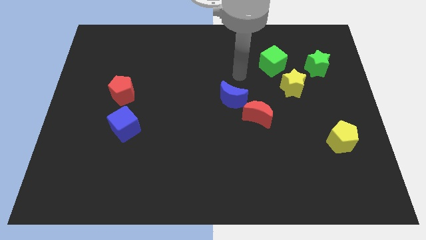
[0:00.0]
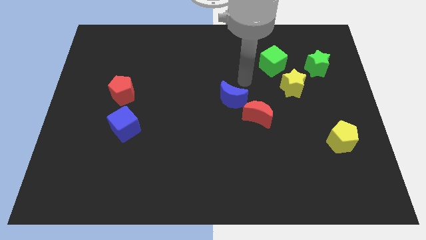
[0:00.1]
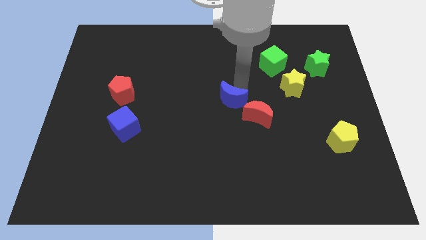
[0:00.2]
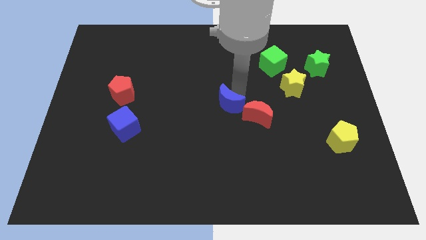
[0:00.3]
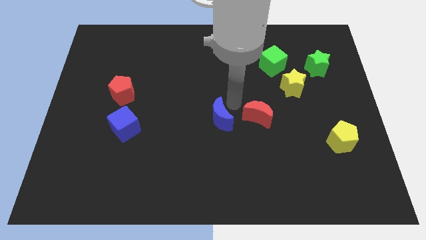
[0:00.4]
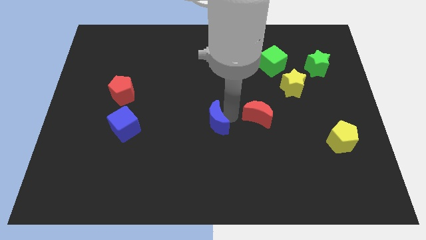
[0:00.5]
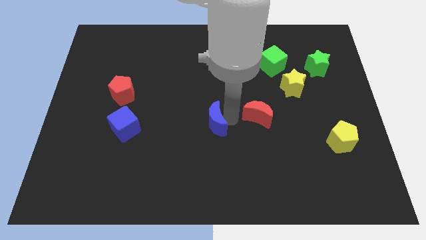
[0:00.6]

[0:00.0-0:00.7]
pull the red moon apart from the blue moon

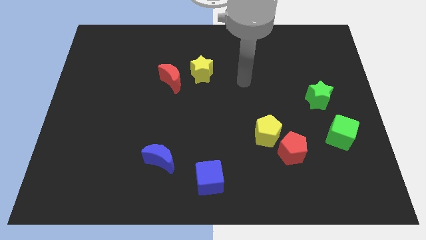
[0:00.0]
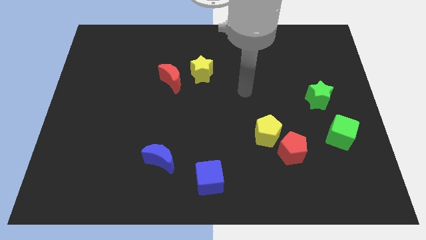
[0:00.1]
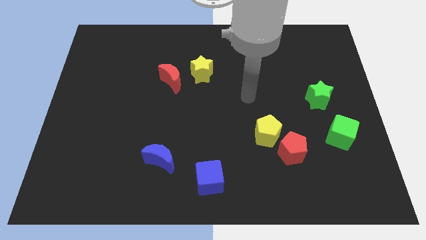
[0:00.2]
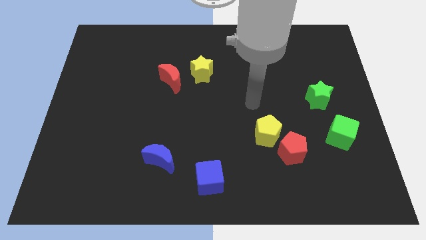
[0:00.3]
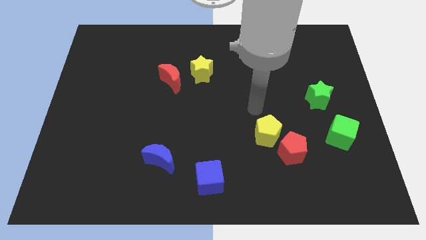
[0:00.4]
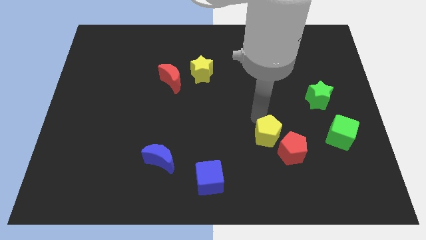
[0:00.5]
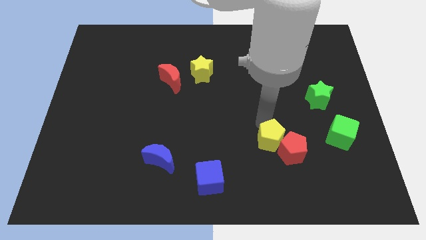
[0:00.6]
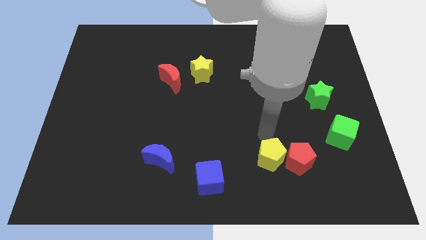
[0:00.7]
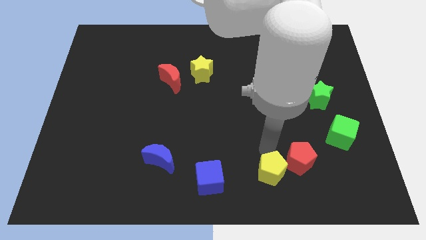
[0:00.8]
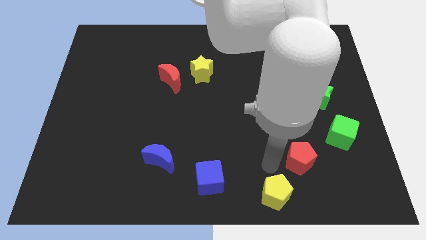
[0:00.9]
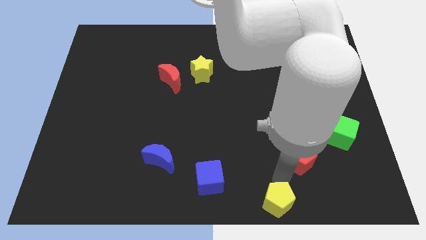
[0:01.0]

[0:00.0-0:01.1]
separate the red pentagon from the yellow pentagon

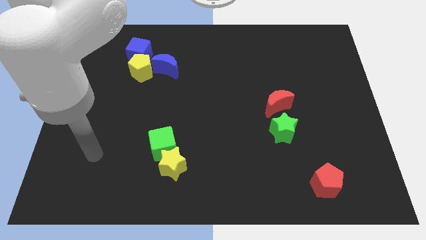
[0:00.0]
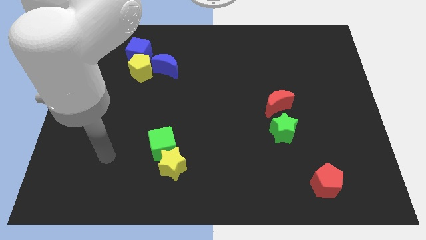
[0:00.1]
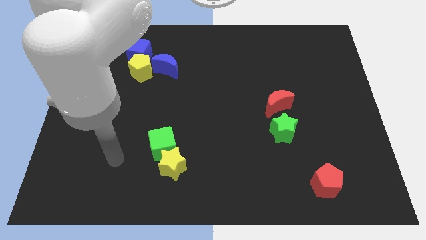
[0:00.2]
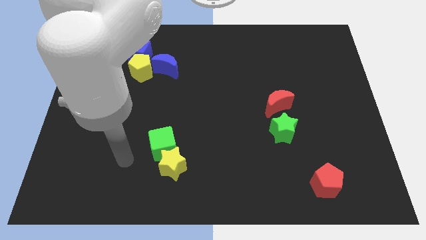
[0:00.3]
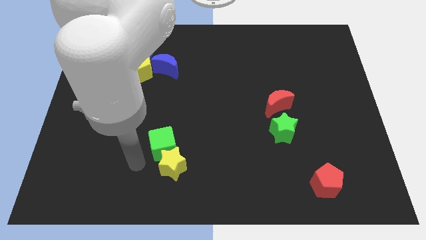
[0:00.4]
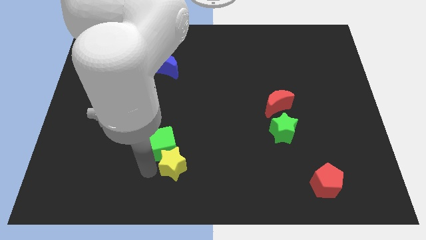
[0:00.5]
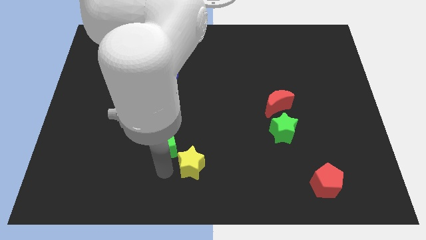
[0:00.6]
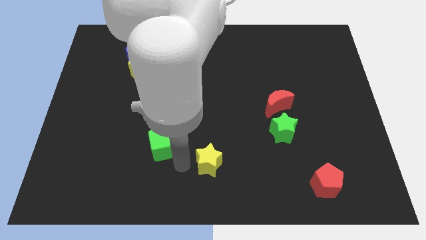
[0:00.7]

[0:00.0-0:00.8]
separate the green cube from the yellow star

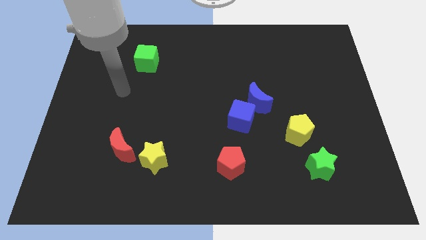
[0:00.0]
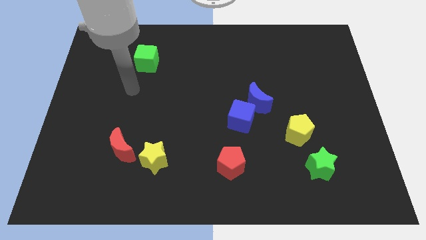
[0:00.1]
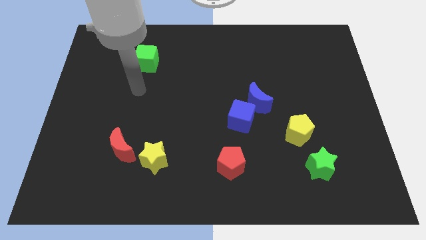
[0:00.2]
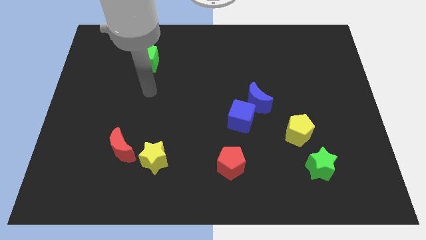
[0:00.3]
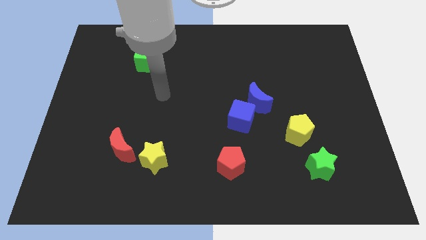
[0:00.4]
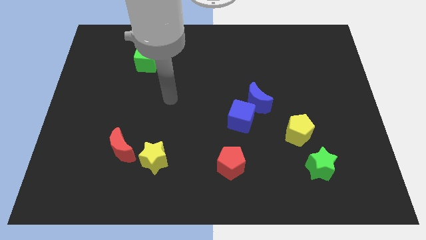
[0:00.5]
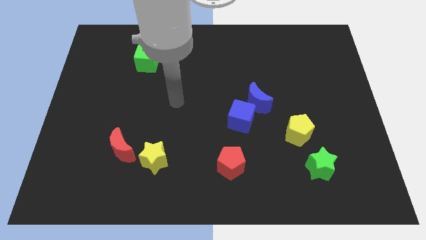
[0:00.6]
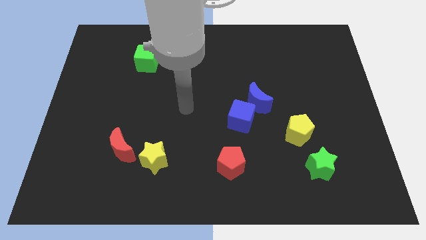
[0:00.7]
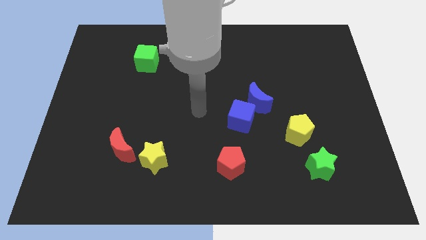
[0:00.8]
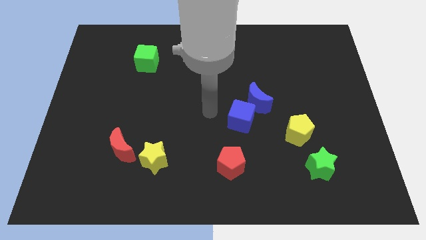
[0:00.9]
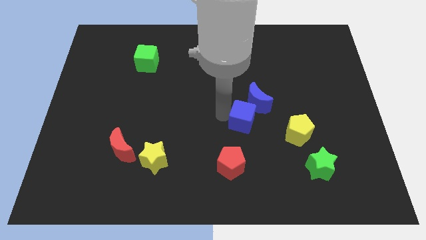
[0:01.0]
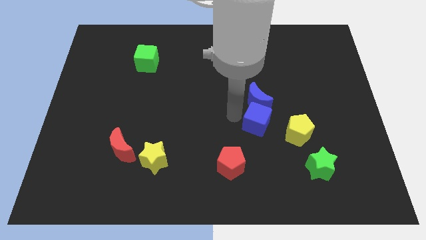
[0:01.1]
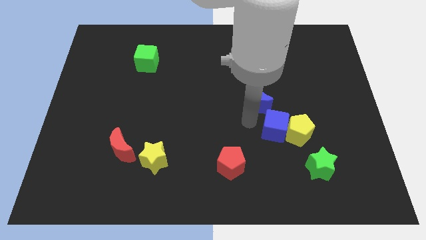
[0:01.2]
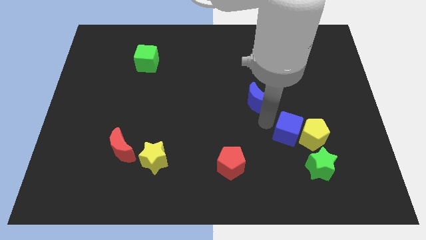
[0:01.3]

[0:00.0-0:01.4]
separate the blue moon from the blue cube

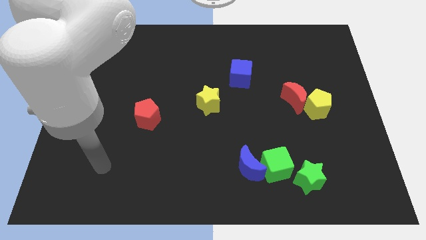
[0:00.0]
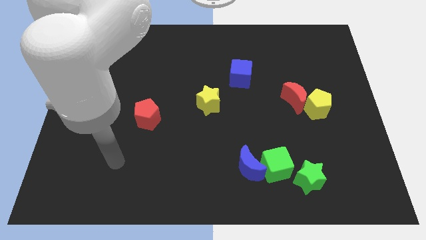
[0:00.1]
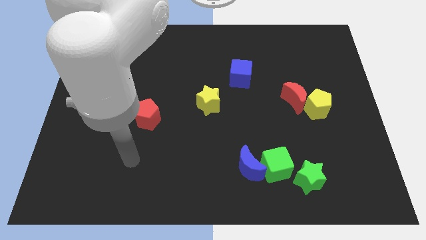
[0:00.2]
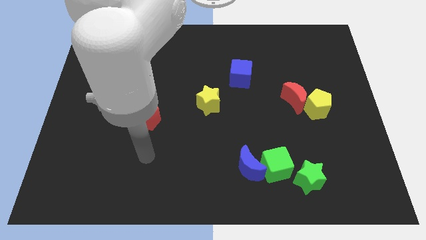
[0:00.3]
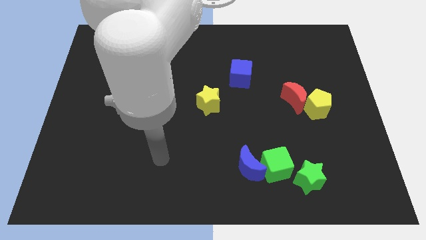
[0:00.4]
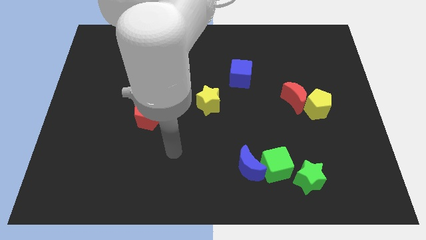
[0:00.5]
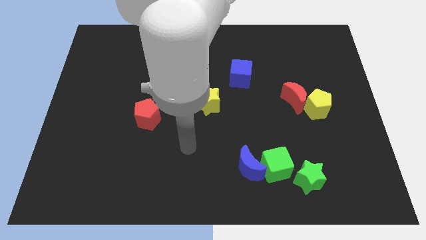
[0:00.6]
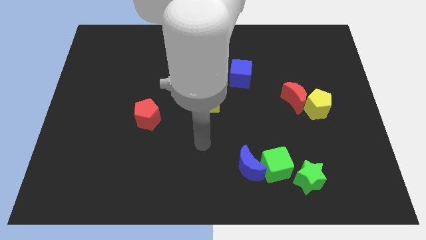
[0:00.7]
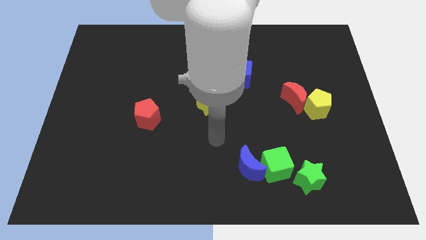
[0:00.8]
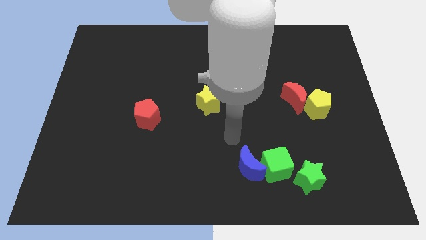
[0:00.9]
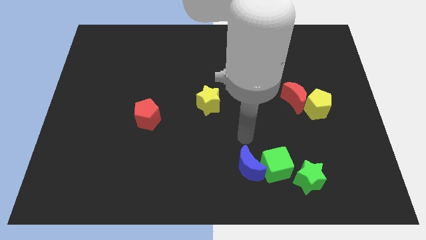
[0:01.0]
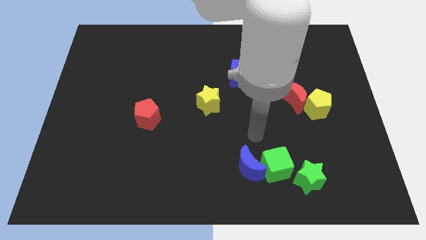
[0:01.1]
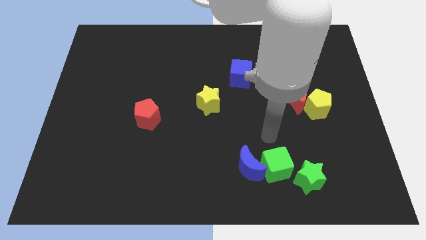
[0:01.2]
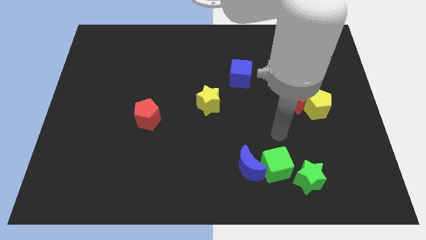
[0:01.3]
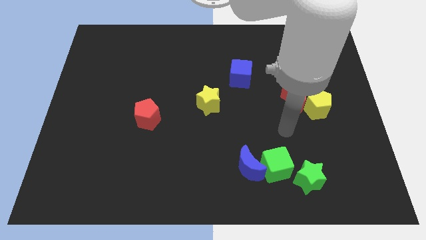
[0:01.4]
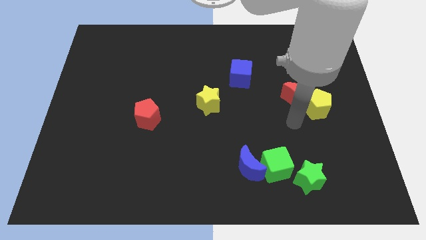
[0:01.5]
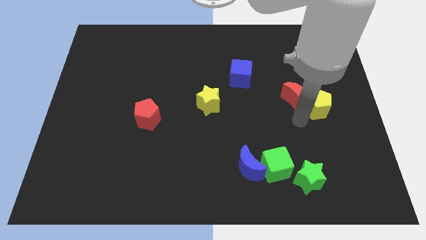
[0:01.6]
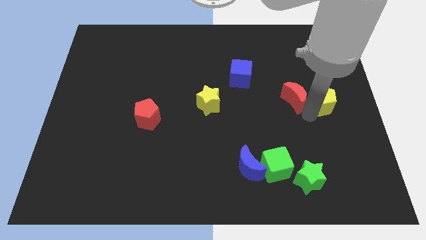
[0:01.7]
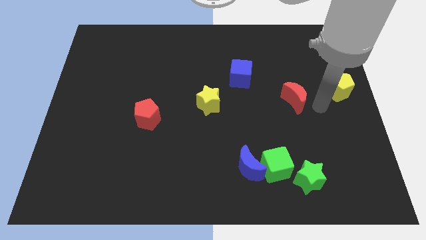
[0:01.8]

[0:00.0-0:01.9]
move the red moon away from the yellow pentagon

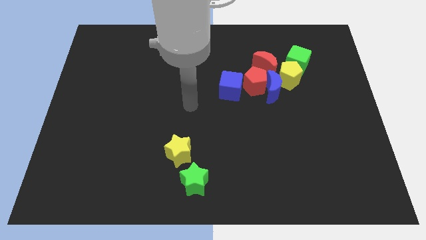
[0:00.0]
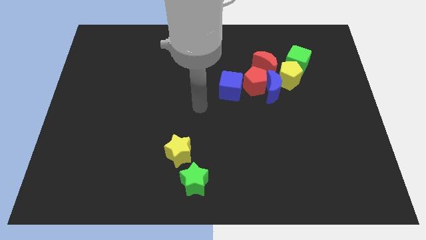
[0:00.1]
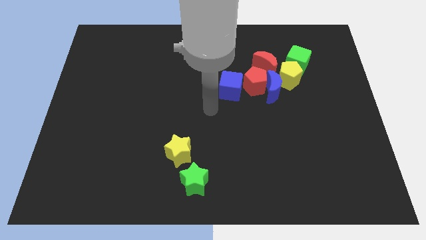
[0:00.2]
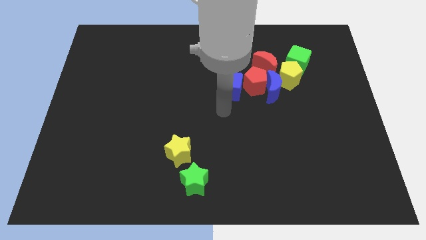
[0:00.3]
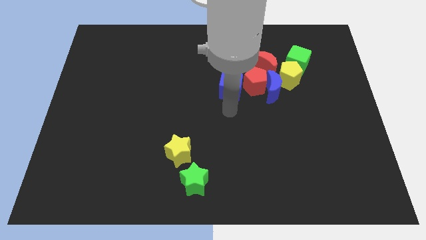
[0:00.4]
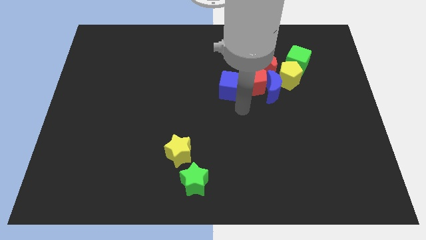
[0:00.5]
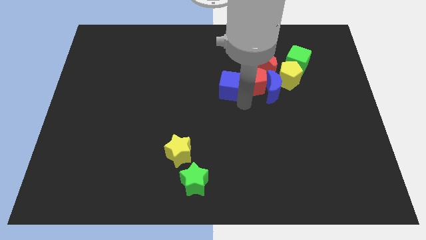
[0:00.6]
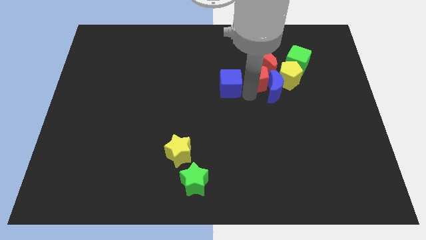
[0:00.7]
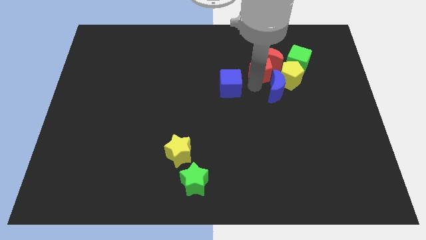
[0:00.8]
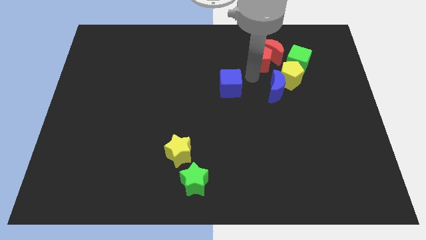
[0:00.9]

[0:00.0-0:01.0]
pull the blue cube apart from the red pentagon

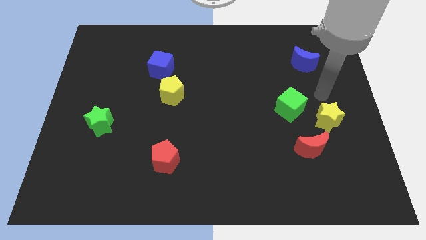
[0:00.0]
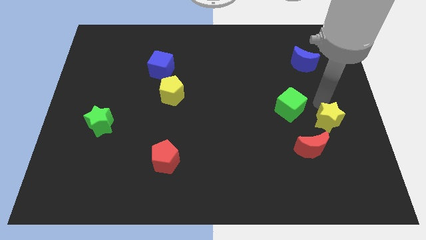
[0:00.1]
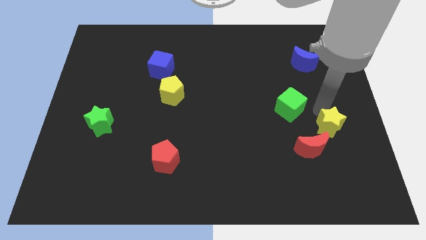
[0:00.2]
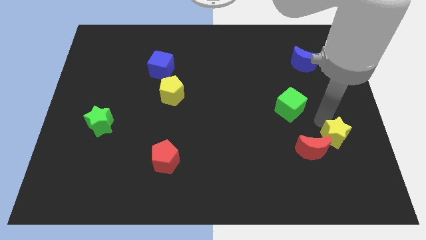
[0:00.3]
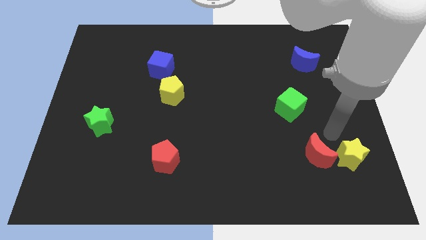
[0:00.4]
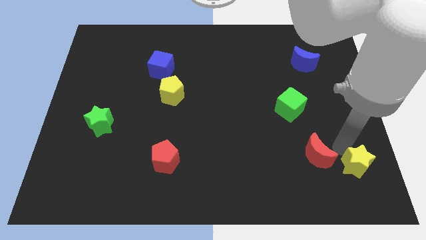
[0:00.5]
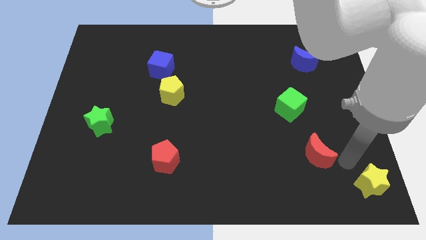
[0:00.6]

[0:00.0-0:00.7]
move the red moon away from the yellow star

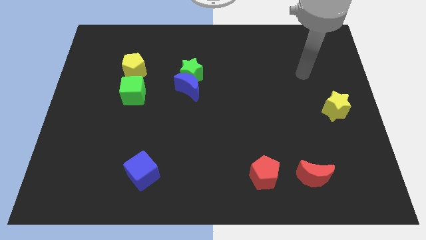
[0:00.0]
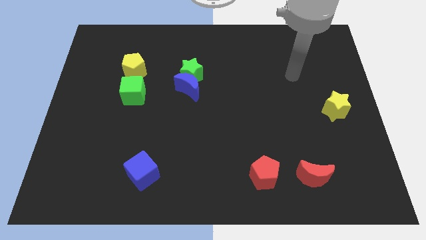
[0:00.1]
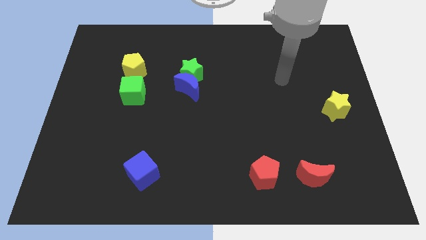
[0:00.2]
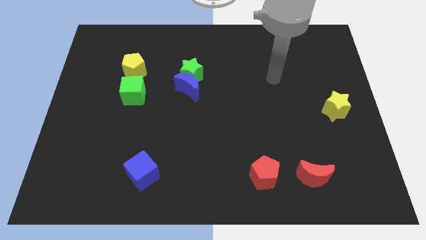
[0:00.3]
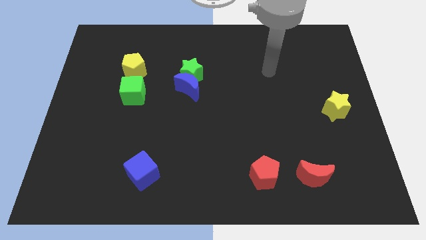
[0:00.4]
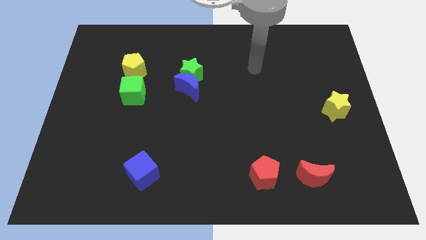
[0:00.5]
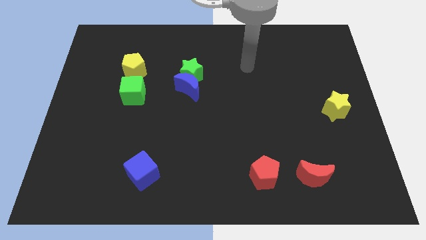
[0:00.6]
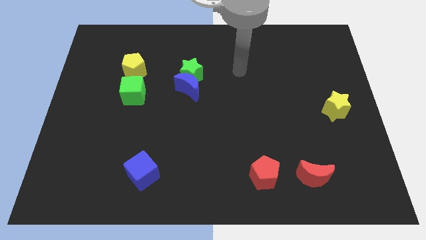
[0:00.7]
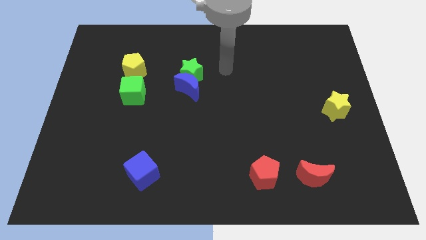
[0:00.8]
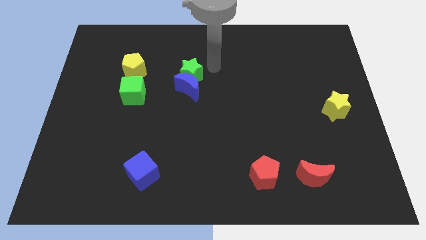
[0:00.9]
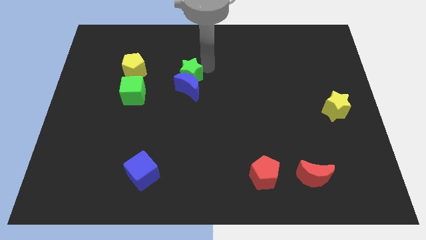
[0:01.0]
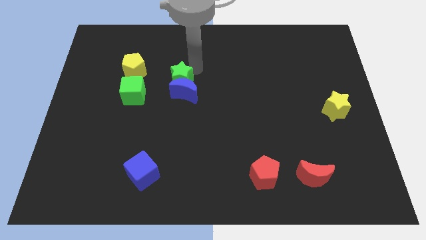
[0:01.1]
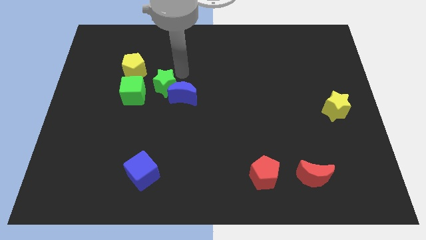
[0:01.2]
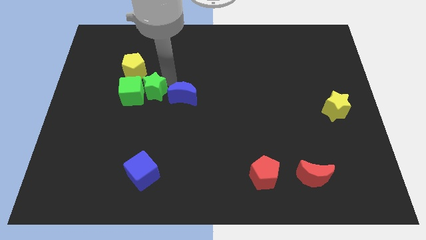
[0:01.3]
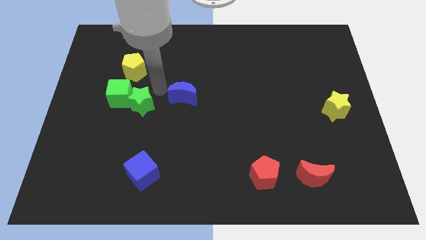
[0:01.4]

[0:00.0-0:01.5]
move the blue moon away from the green star

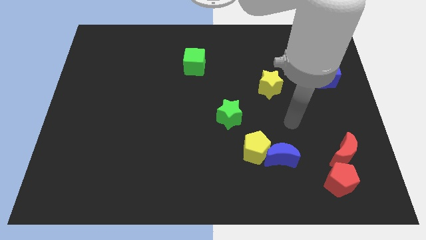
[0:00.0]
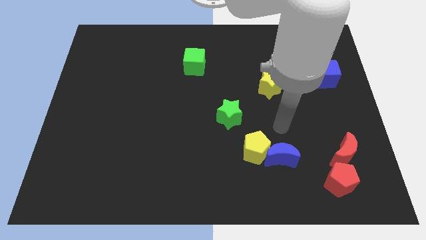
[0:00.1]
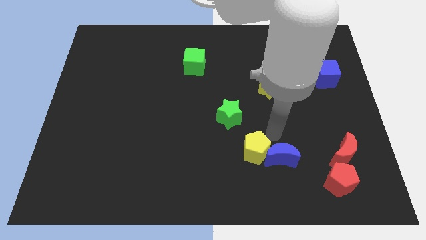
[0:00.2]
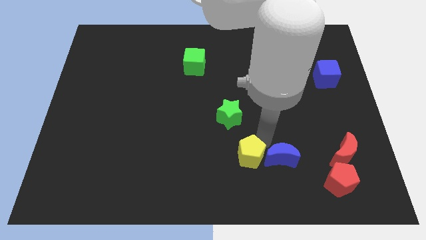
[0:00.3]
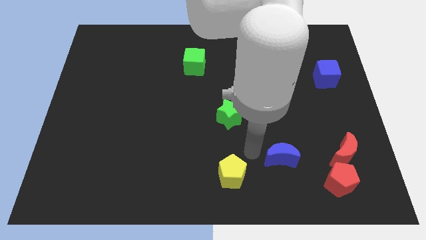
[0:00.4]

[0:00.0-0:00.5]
separate the blue moon from the yellow pentagon
